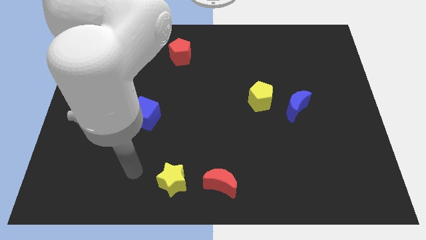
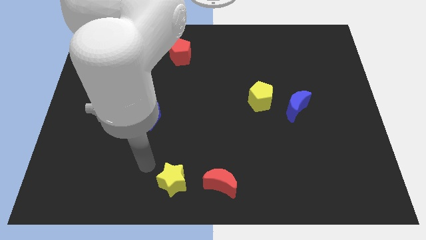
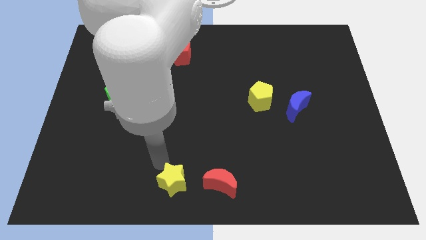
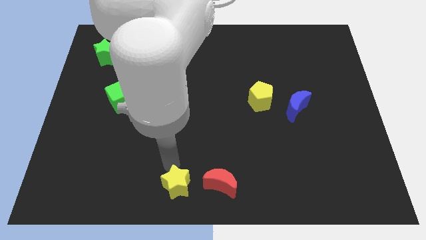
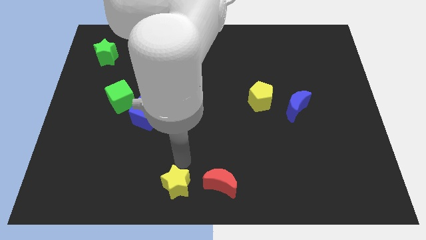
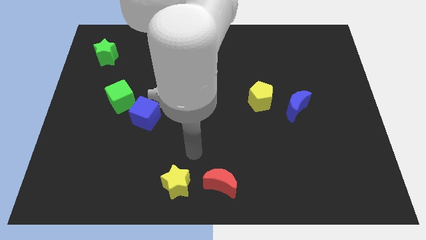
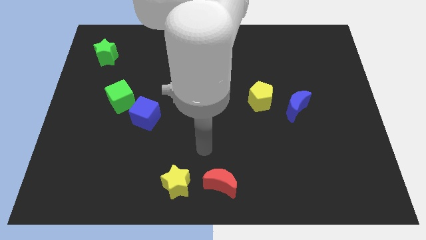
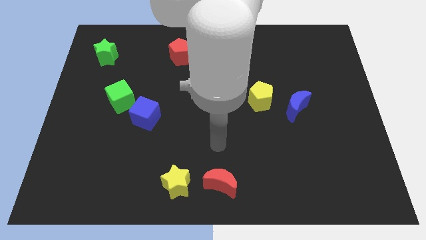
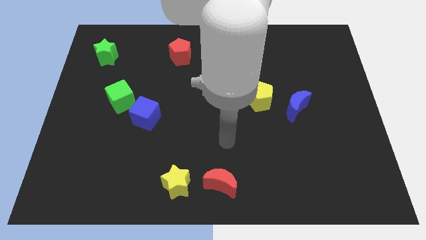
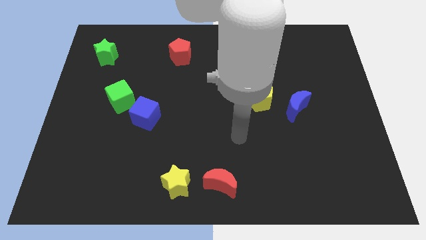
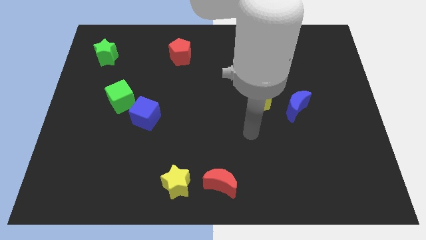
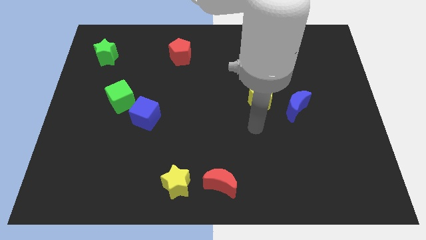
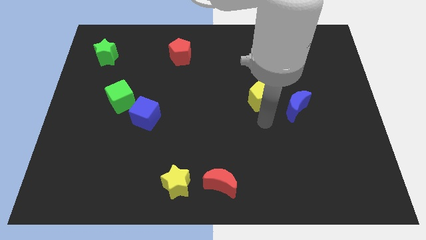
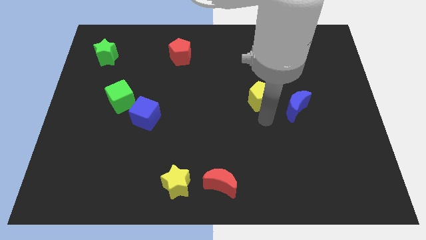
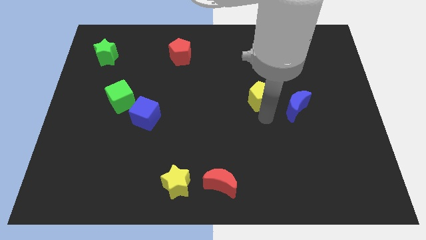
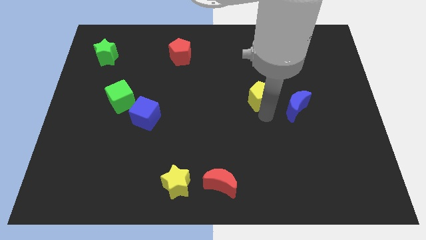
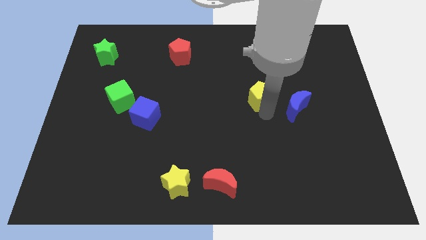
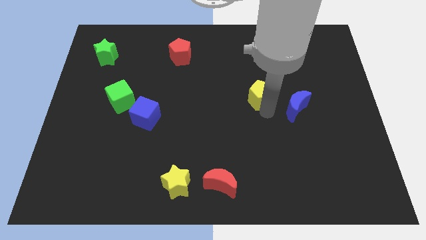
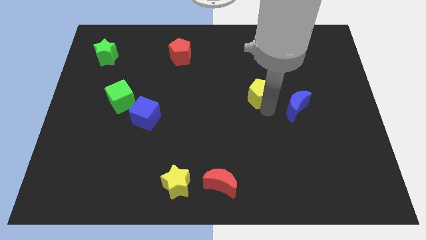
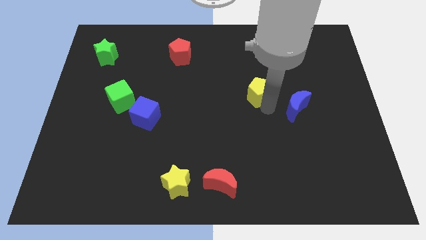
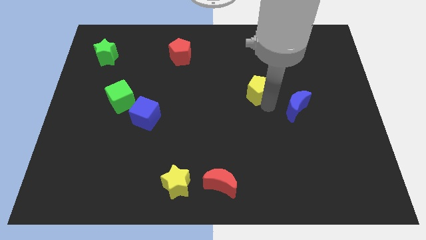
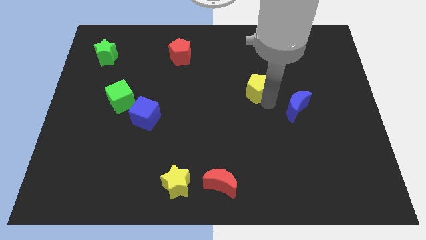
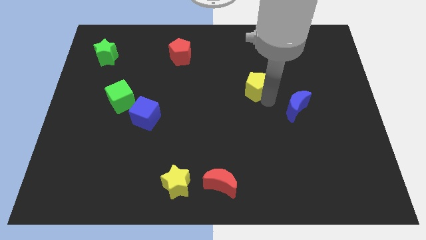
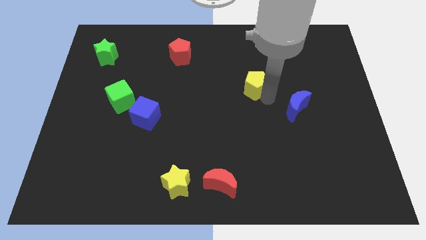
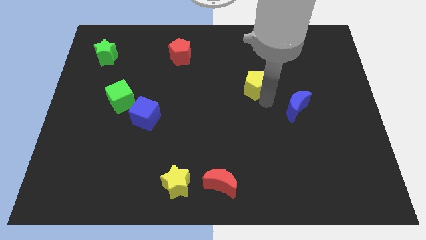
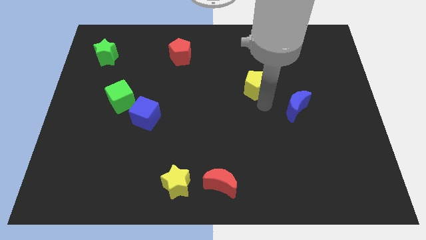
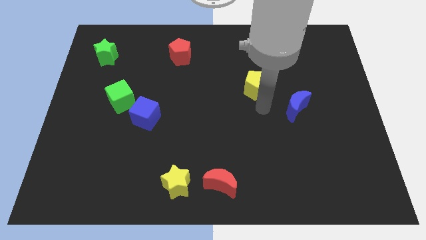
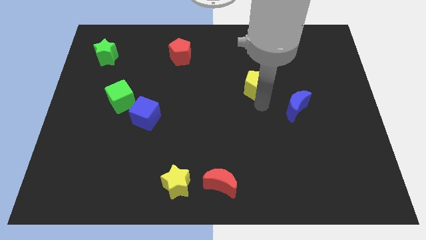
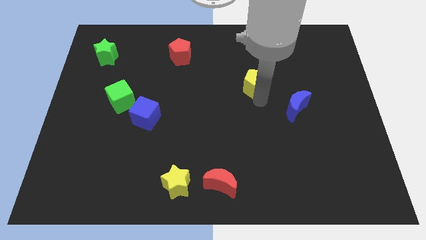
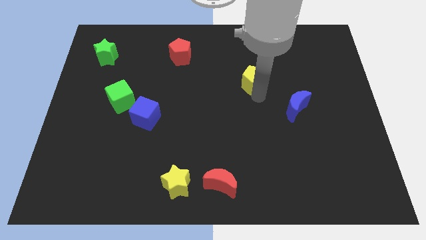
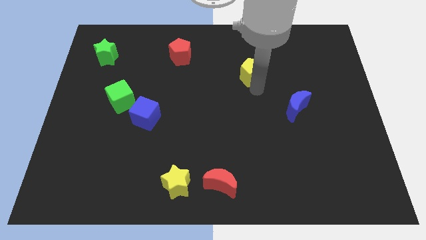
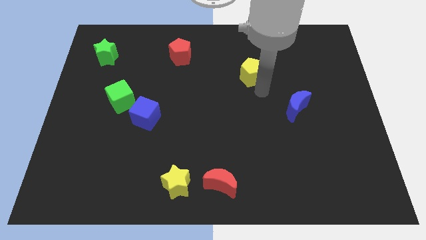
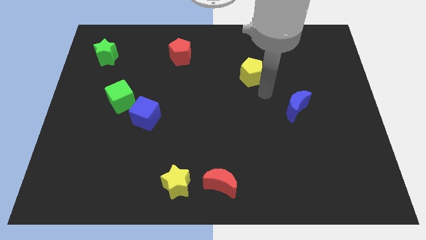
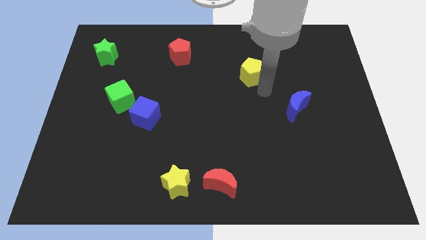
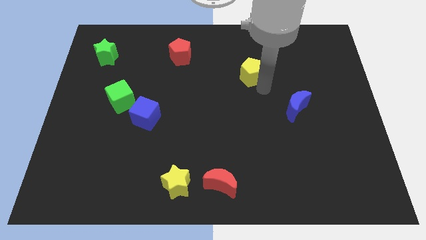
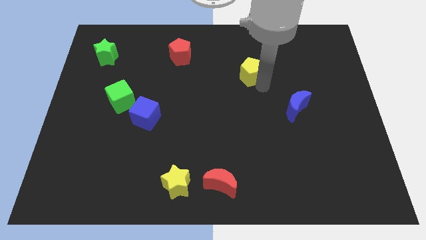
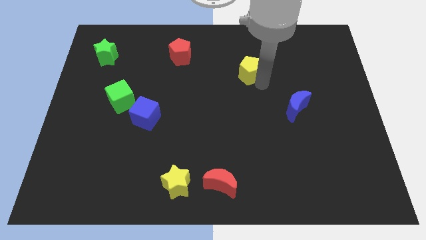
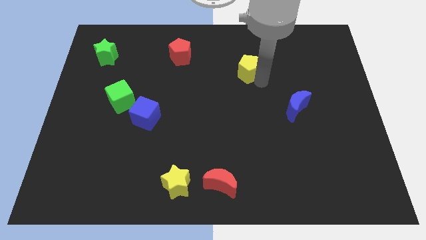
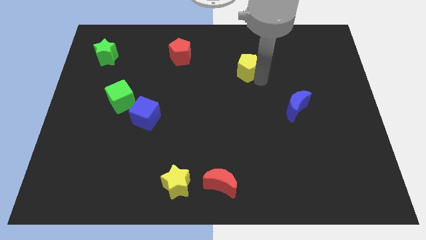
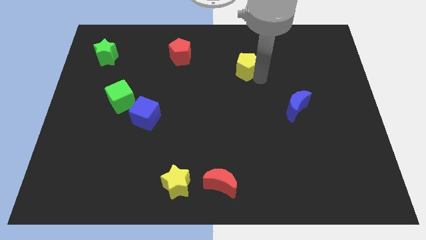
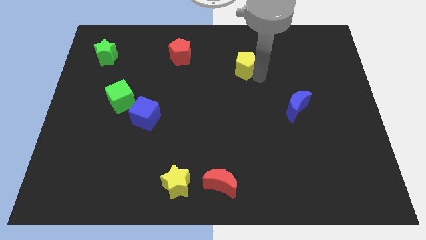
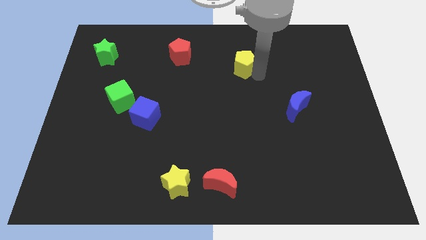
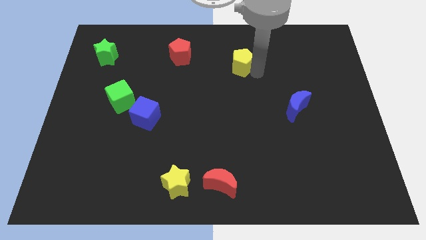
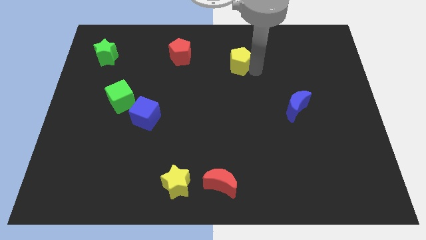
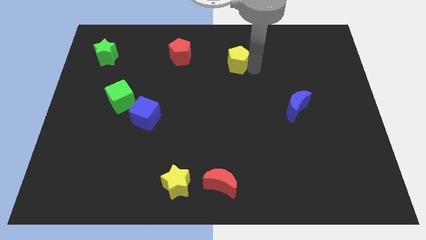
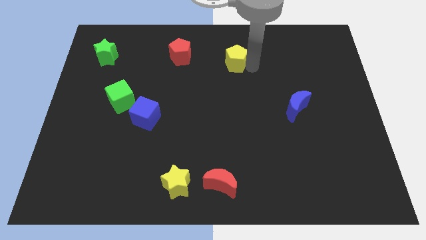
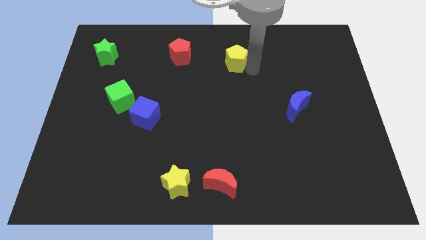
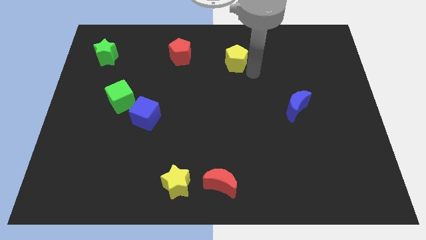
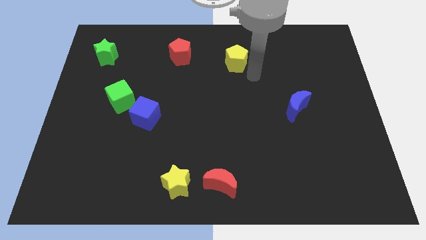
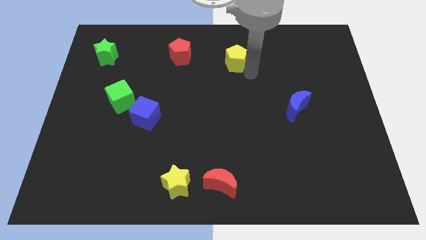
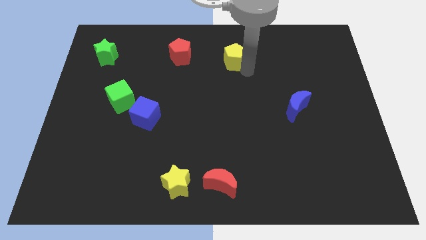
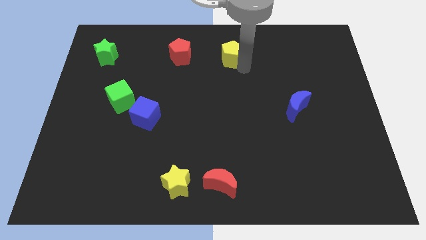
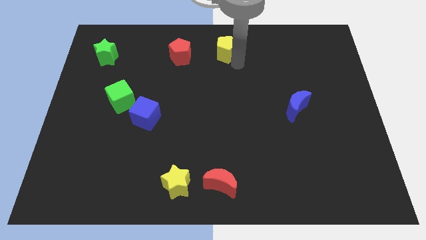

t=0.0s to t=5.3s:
put the yellow pentagon to the top side
